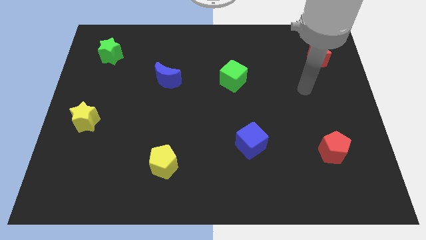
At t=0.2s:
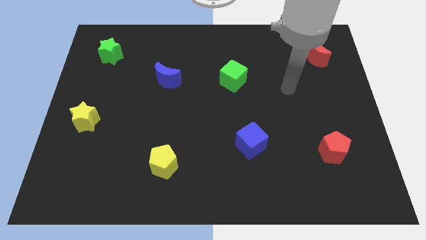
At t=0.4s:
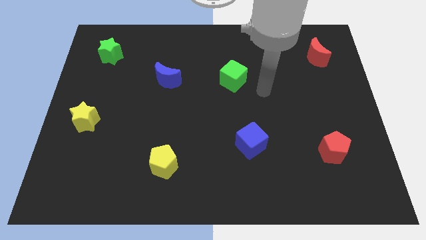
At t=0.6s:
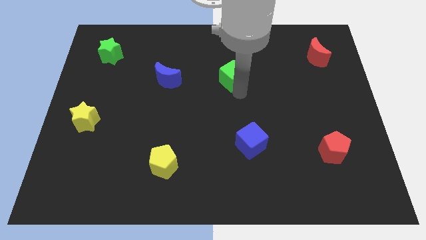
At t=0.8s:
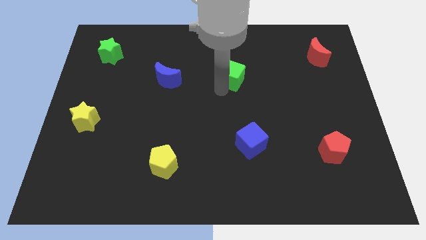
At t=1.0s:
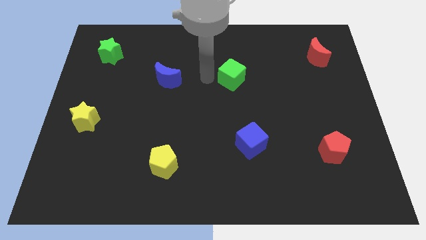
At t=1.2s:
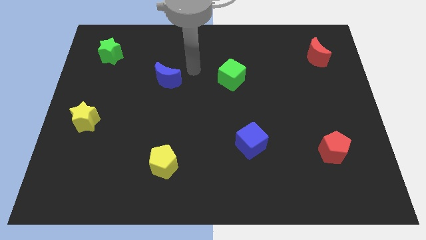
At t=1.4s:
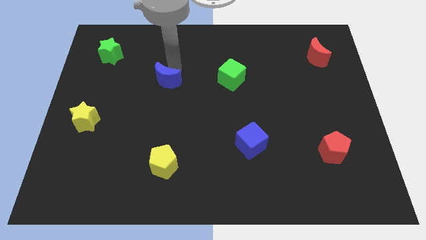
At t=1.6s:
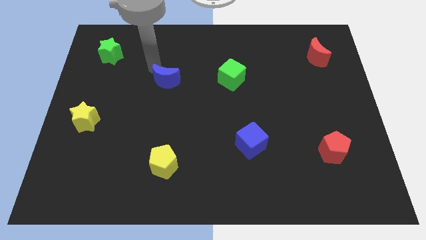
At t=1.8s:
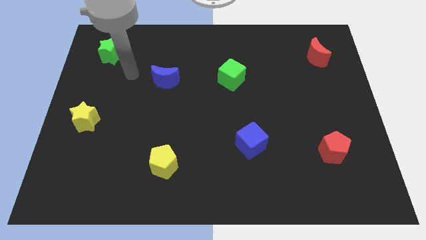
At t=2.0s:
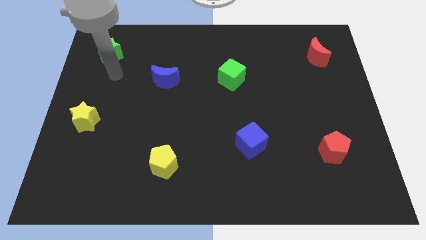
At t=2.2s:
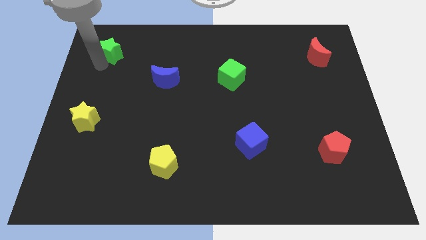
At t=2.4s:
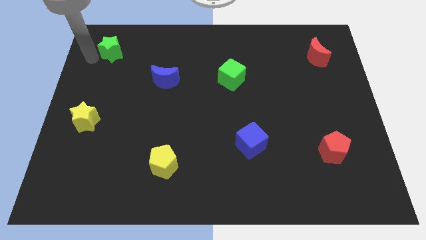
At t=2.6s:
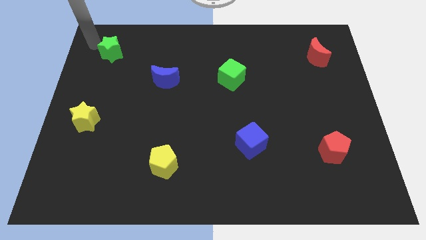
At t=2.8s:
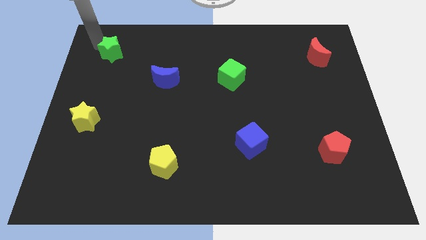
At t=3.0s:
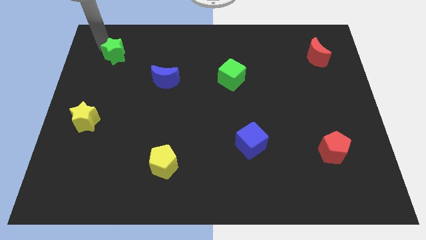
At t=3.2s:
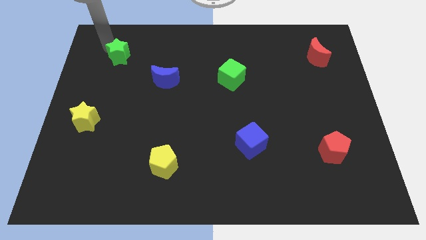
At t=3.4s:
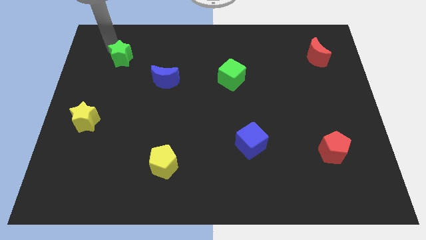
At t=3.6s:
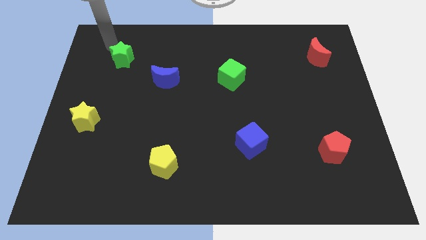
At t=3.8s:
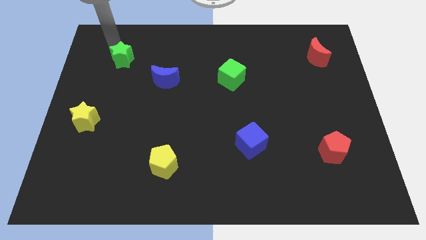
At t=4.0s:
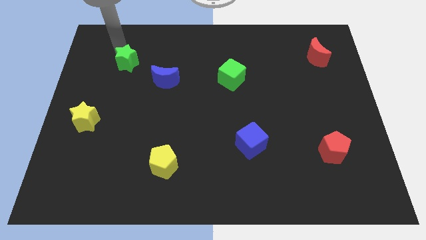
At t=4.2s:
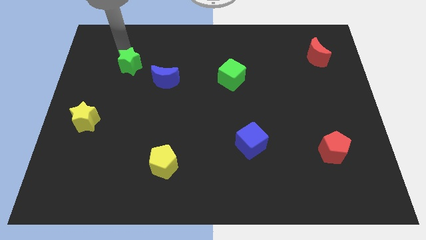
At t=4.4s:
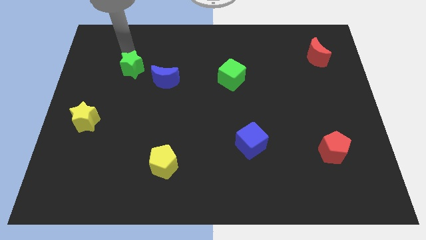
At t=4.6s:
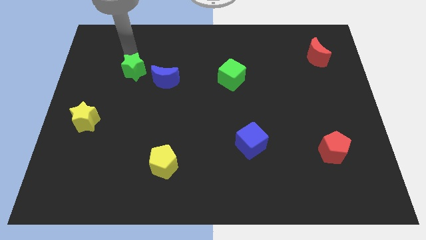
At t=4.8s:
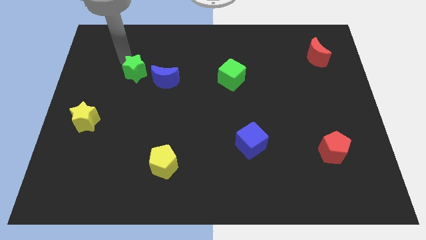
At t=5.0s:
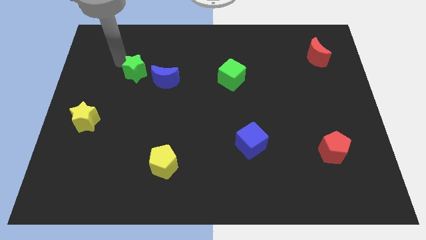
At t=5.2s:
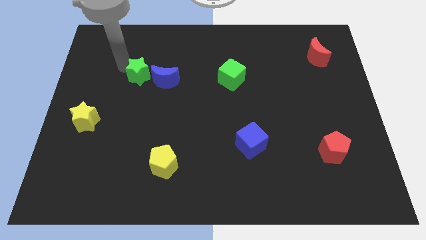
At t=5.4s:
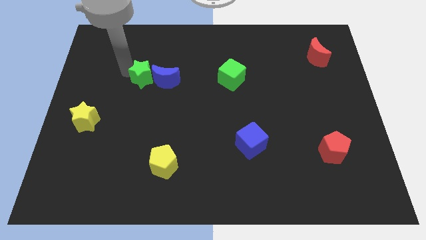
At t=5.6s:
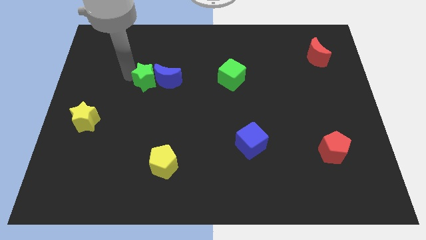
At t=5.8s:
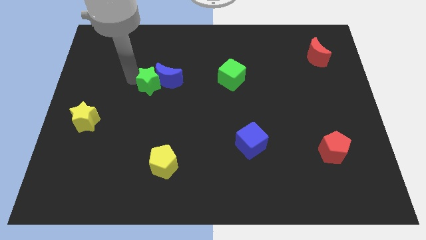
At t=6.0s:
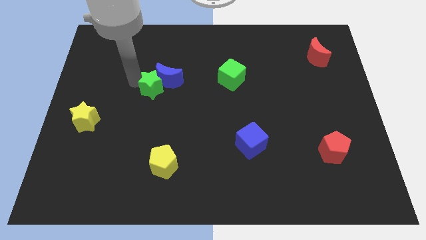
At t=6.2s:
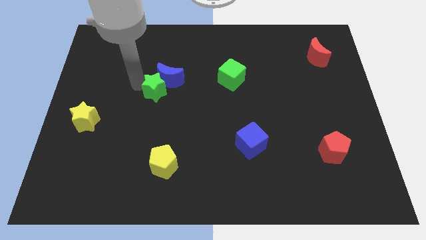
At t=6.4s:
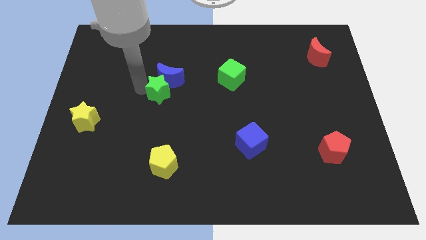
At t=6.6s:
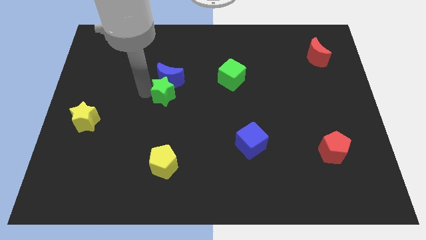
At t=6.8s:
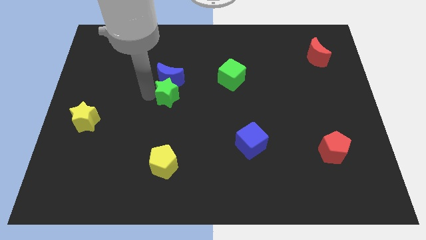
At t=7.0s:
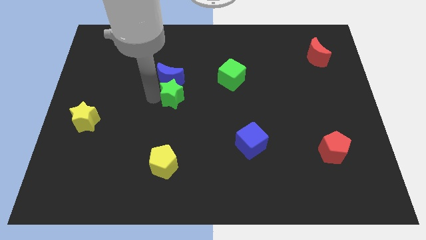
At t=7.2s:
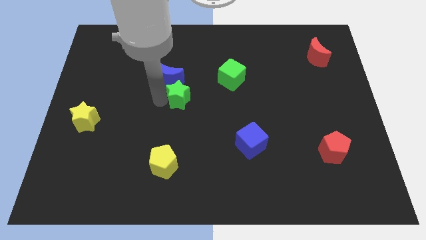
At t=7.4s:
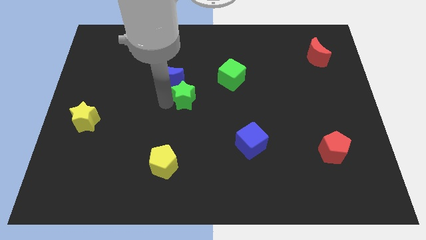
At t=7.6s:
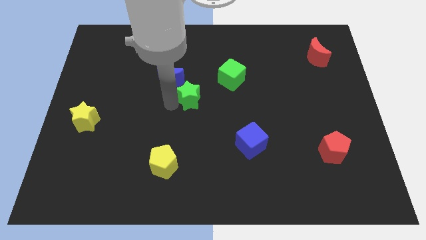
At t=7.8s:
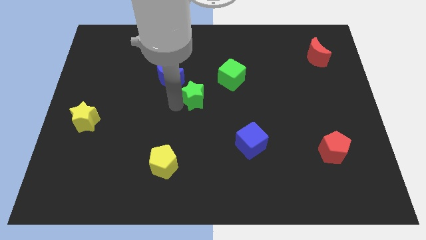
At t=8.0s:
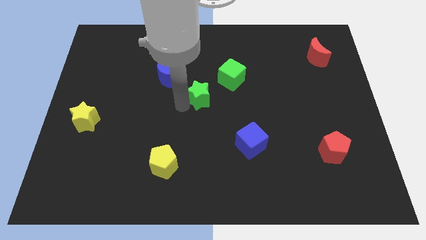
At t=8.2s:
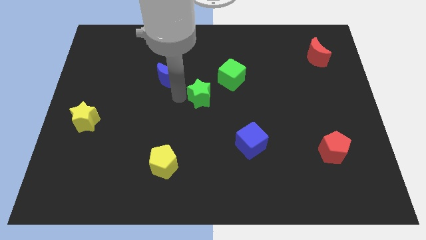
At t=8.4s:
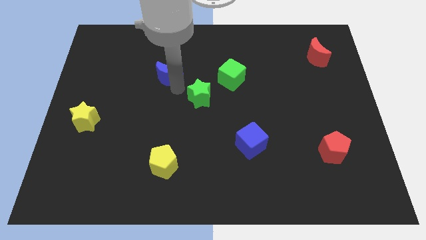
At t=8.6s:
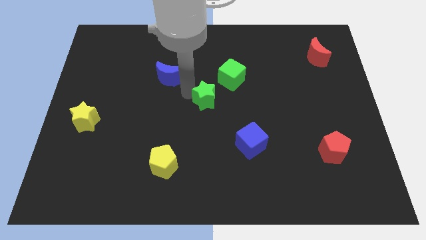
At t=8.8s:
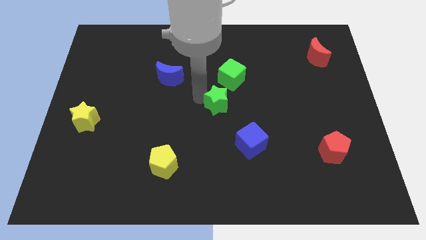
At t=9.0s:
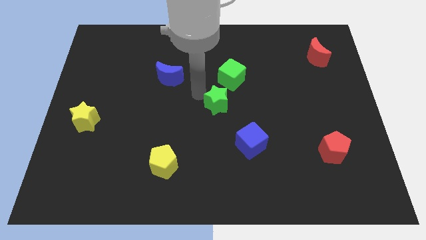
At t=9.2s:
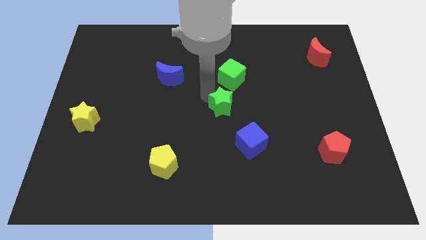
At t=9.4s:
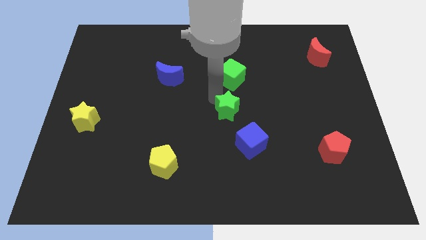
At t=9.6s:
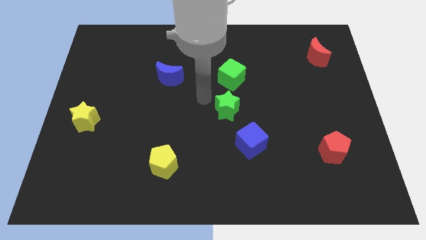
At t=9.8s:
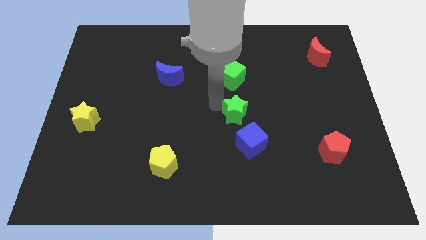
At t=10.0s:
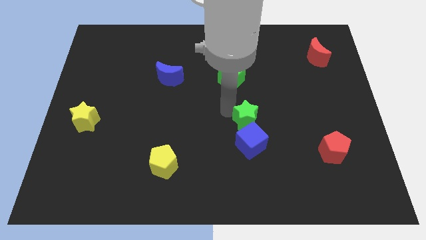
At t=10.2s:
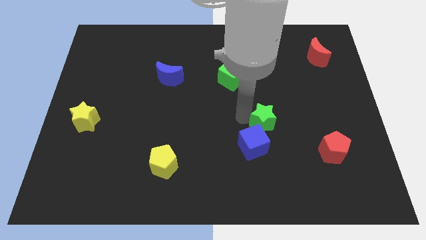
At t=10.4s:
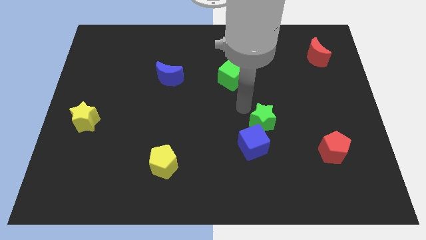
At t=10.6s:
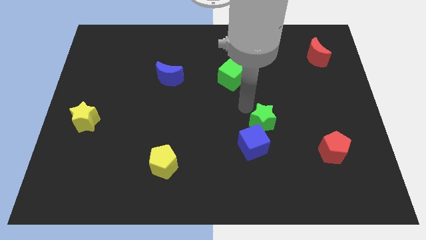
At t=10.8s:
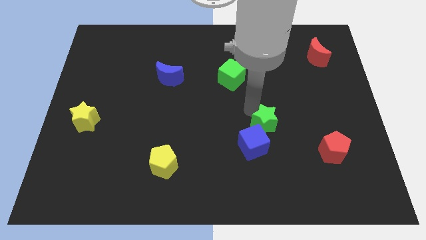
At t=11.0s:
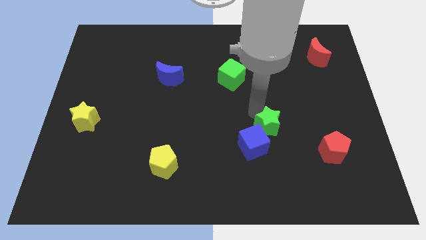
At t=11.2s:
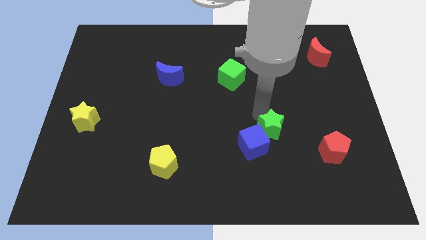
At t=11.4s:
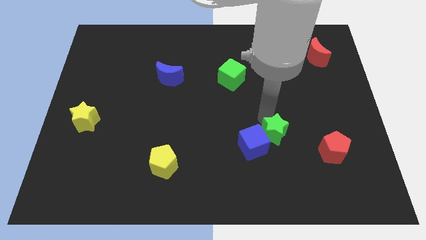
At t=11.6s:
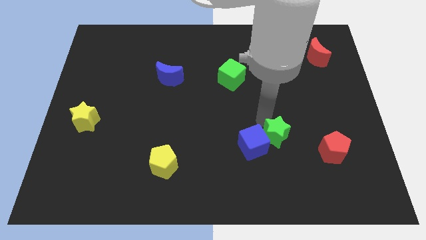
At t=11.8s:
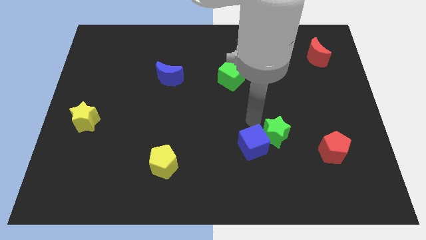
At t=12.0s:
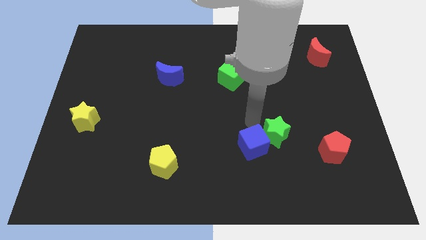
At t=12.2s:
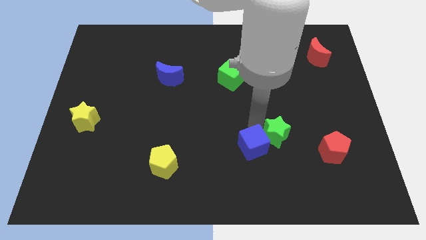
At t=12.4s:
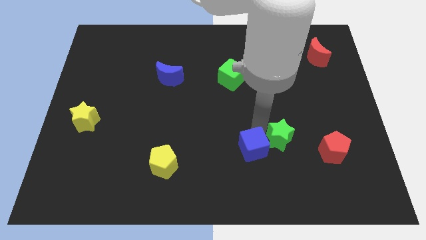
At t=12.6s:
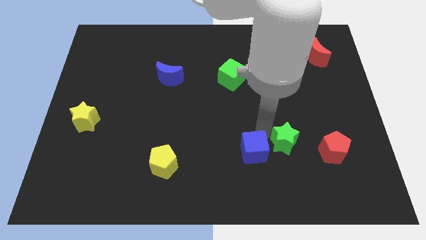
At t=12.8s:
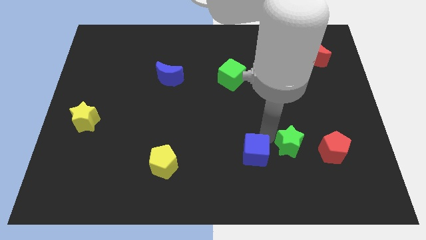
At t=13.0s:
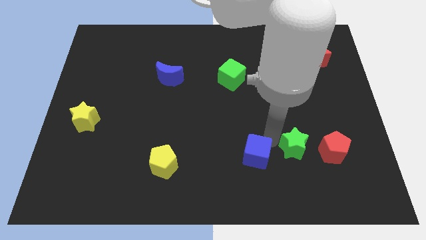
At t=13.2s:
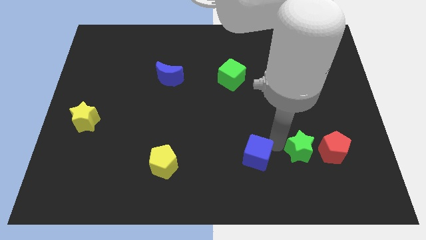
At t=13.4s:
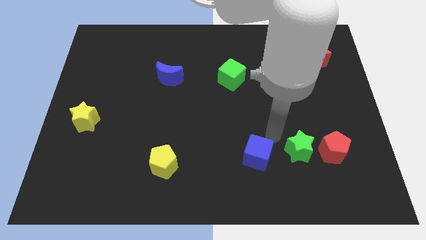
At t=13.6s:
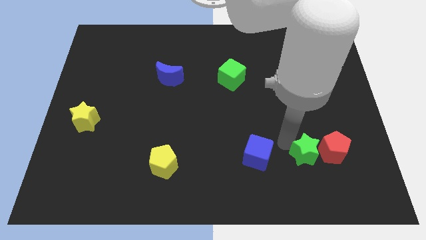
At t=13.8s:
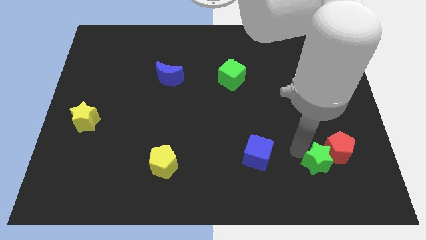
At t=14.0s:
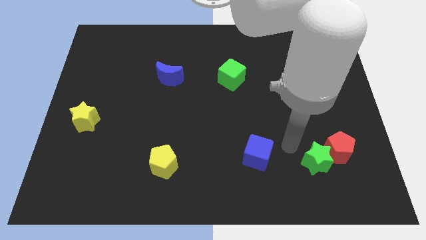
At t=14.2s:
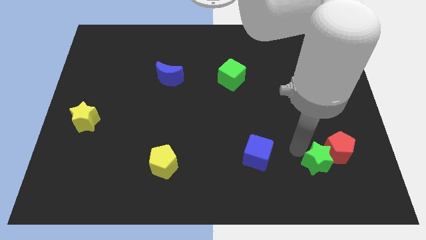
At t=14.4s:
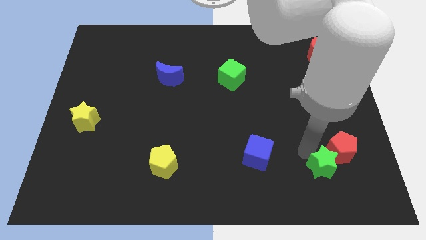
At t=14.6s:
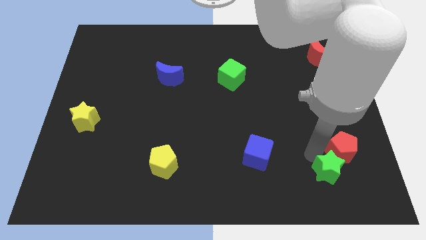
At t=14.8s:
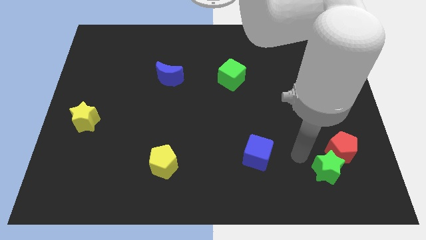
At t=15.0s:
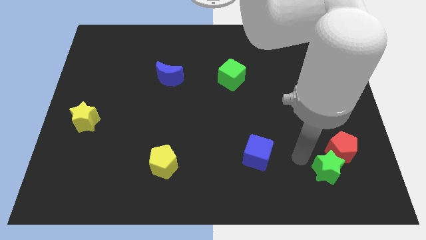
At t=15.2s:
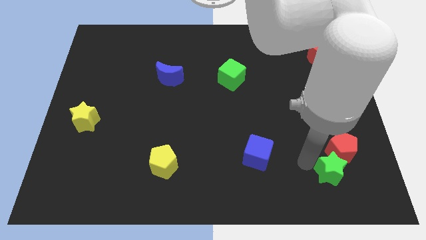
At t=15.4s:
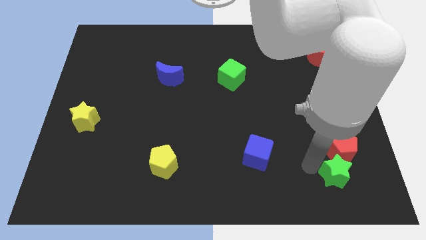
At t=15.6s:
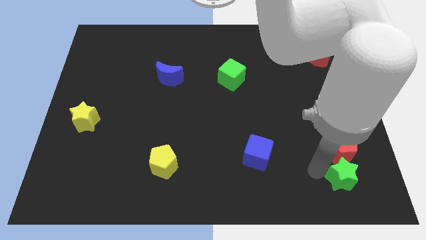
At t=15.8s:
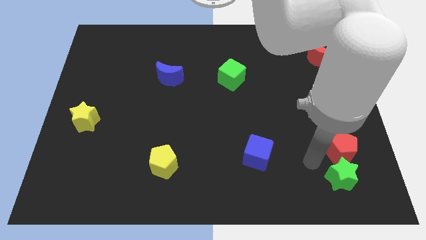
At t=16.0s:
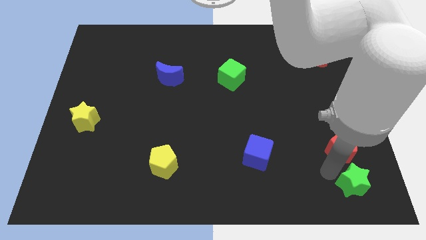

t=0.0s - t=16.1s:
slide the green star to the bottom right
